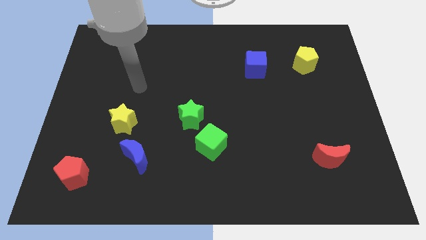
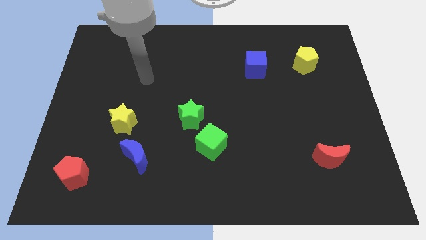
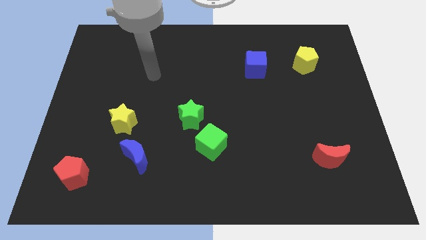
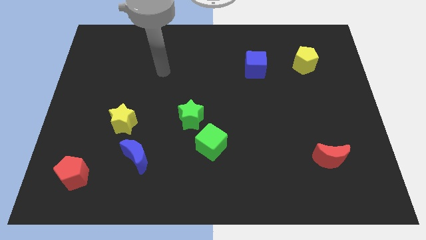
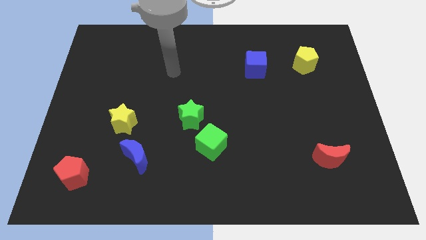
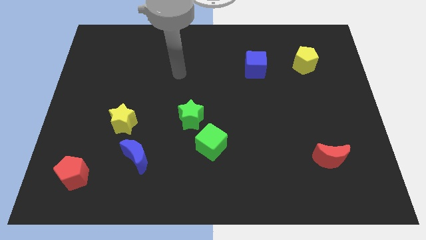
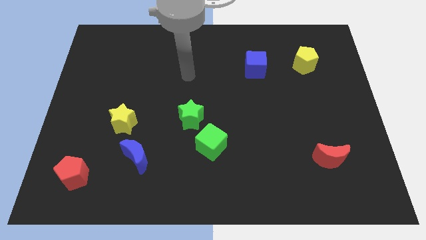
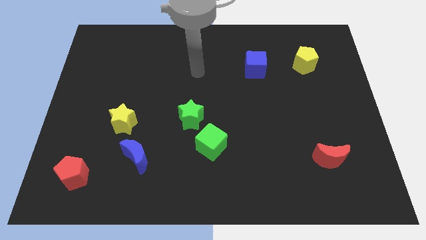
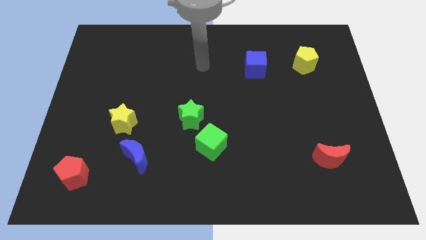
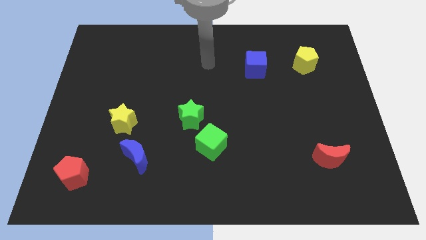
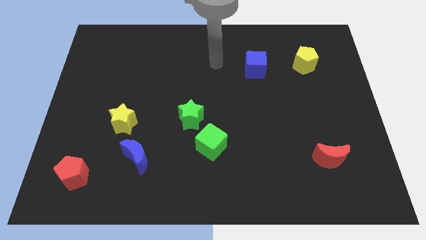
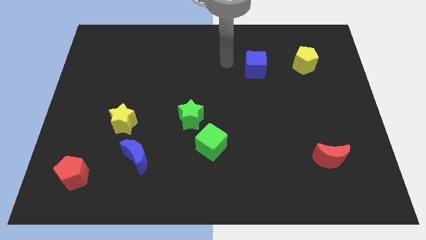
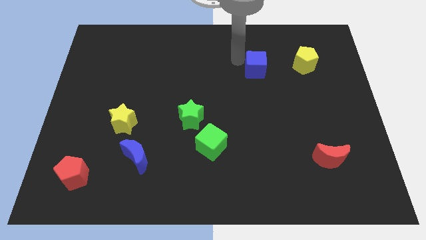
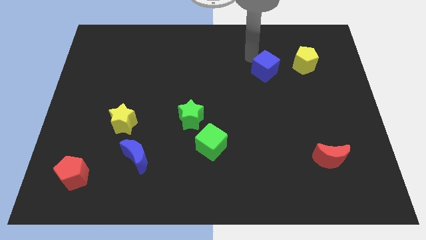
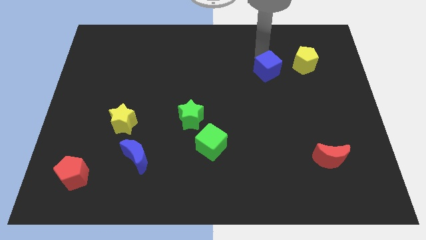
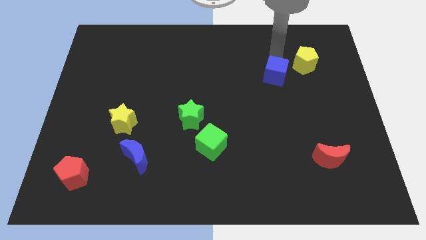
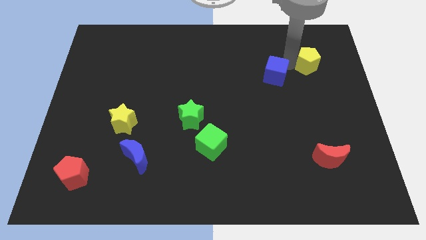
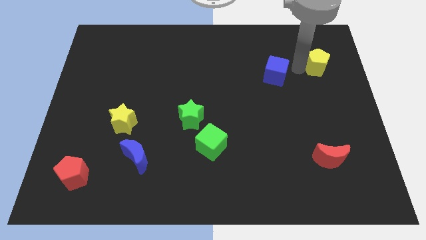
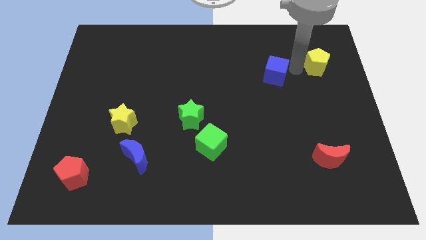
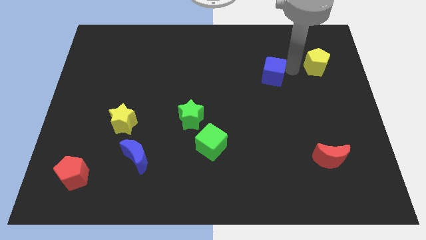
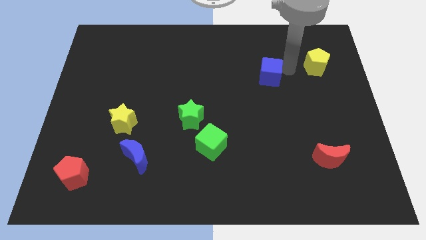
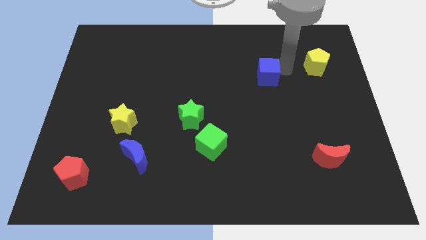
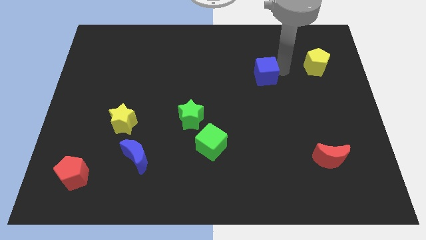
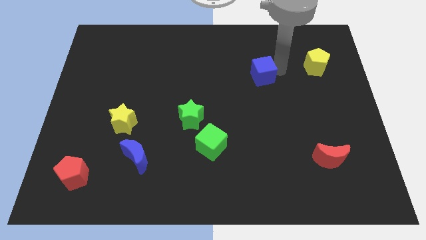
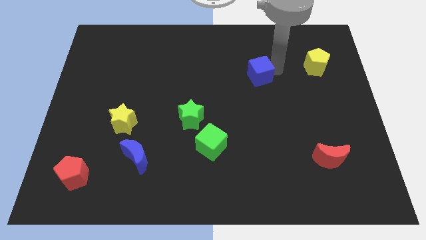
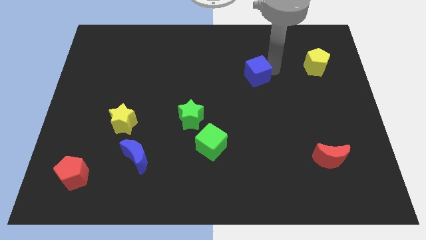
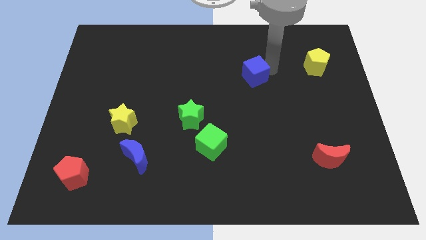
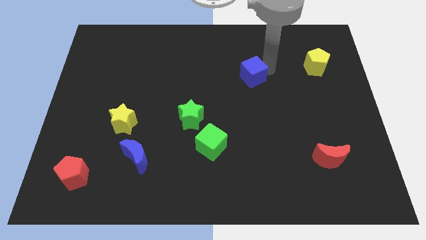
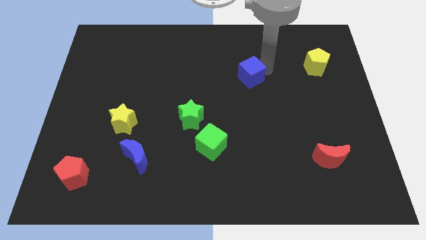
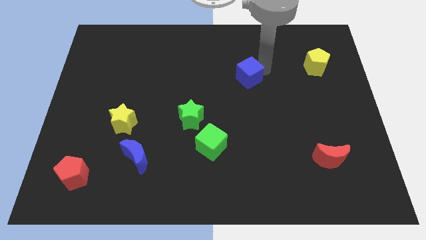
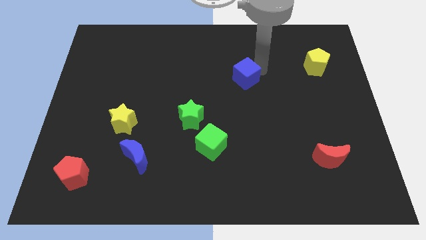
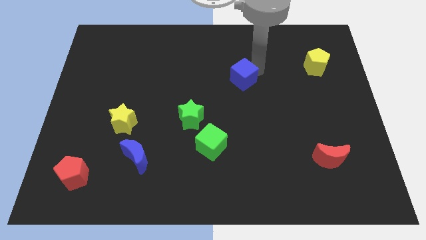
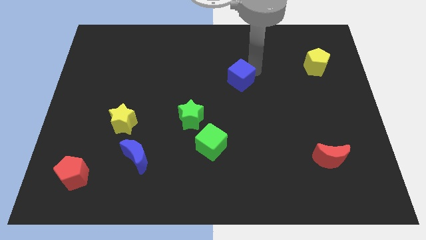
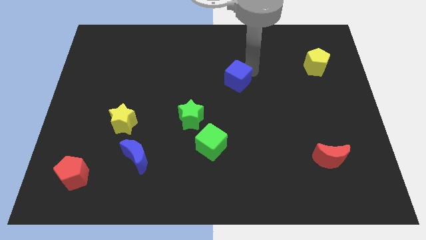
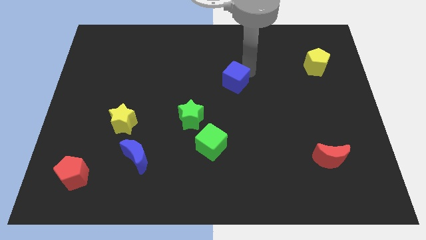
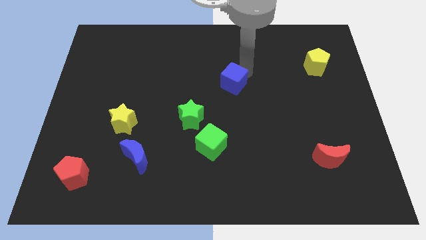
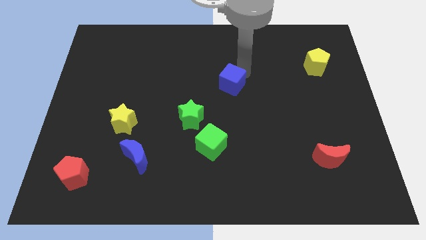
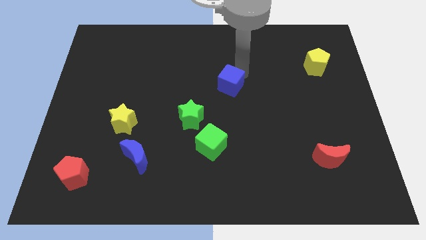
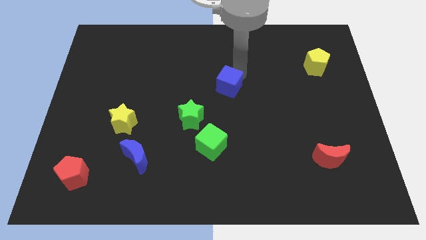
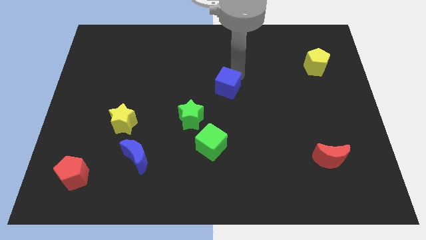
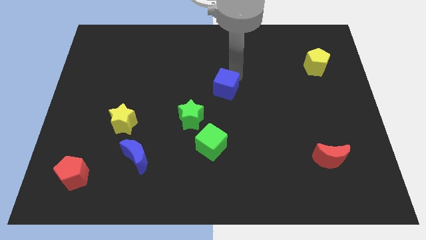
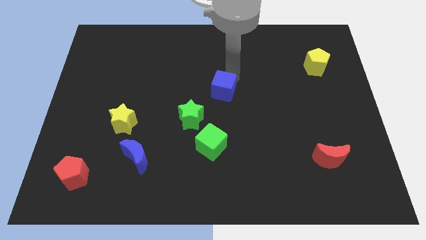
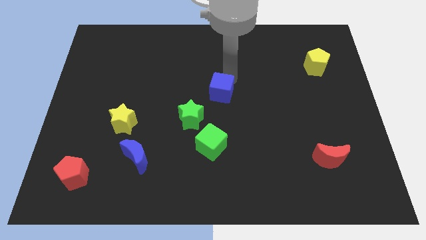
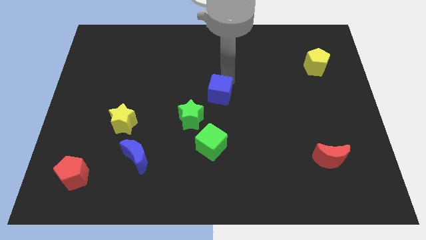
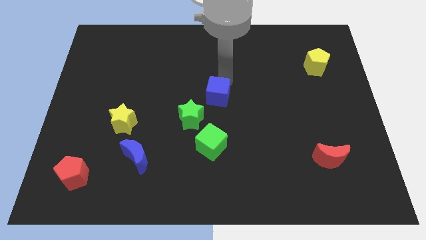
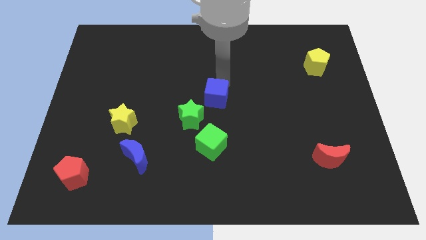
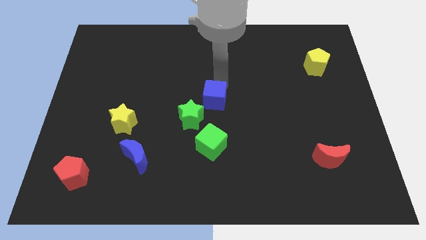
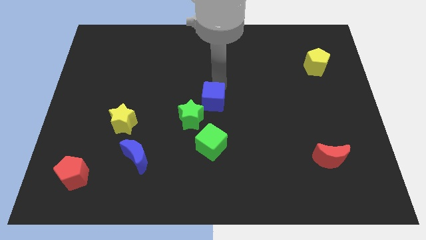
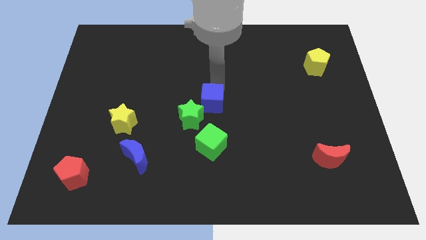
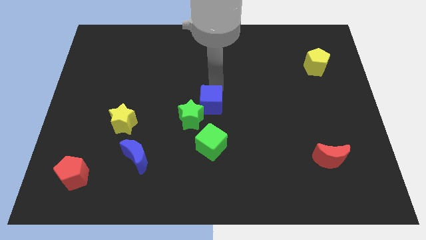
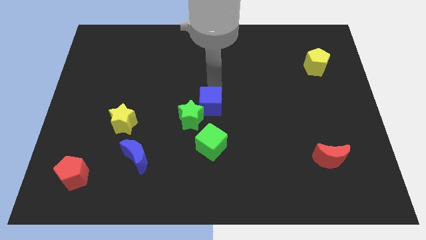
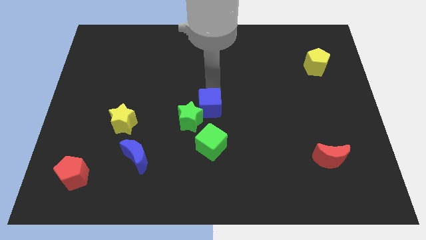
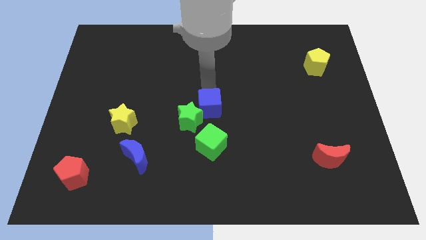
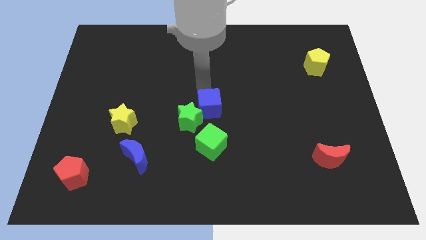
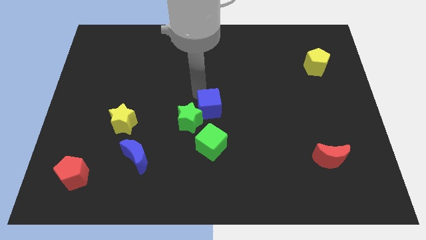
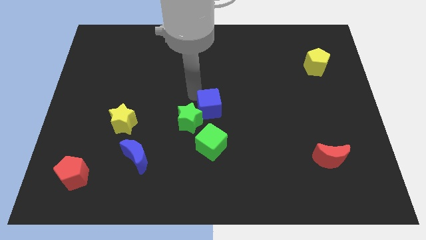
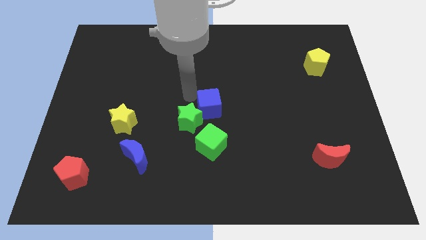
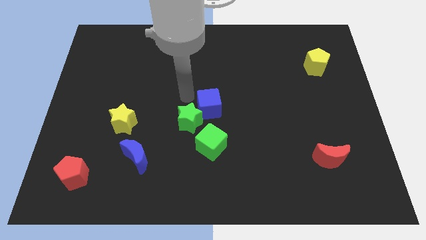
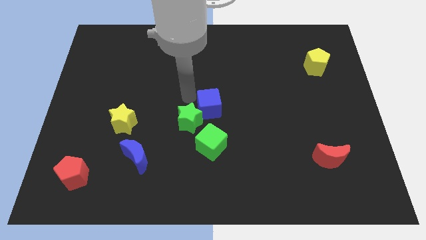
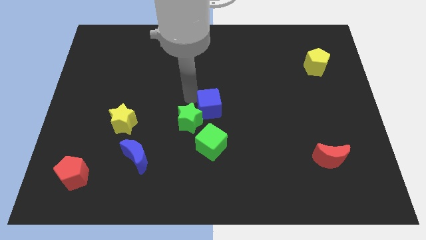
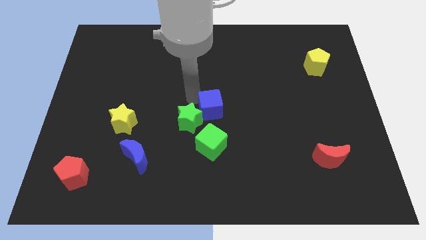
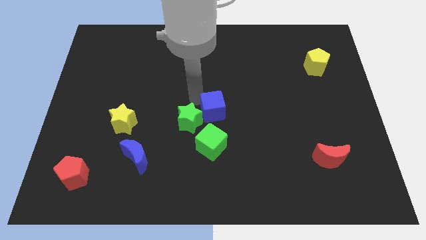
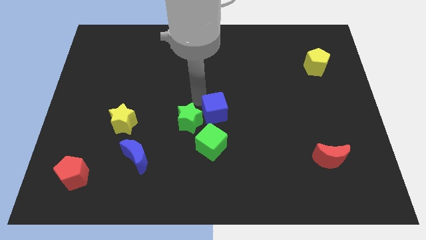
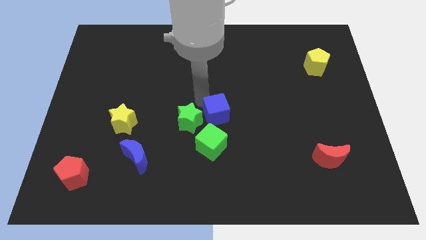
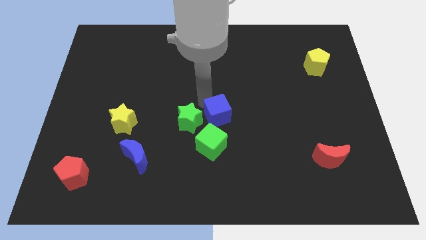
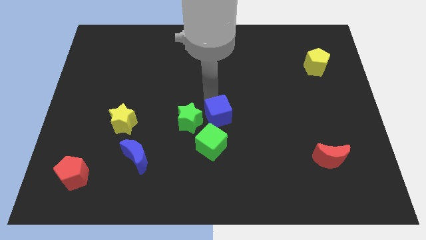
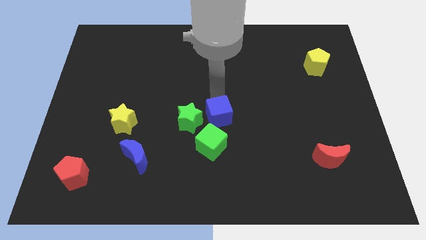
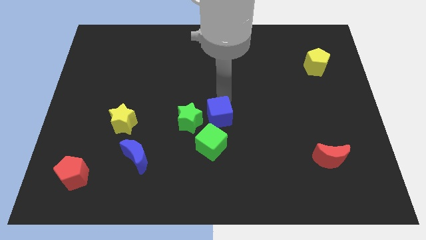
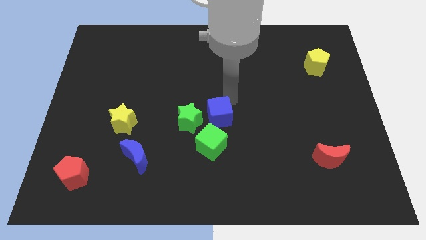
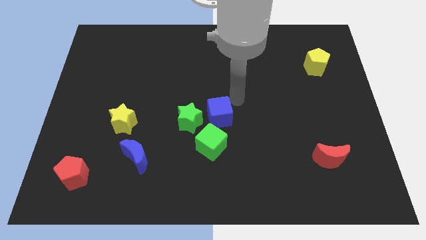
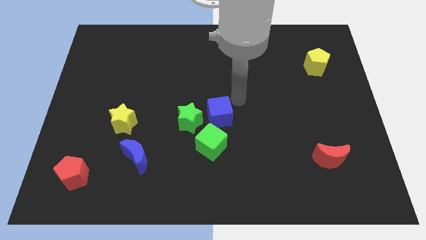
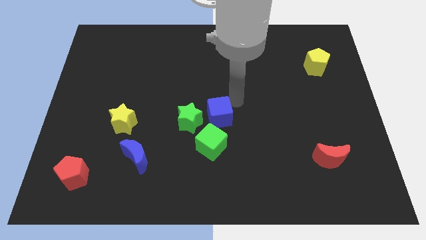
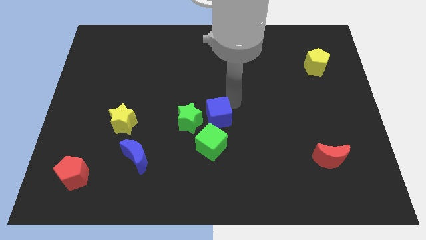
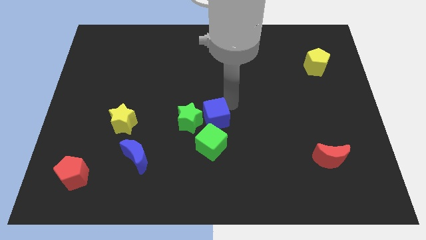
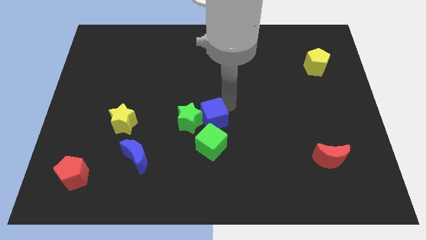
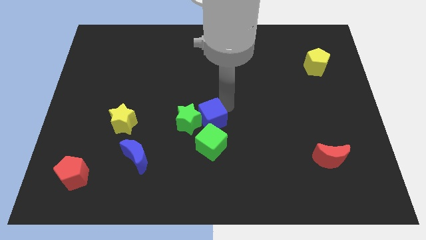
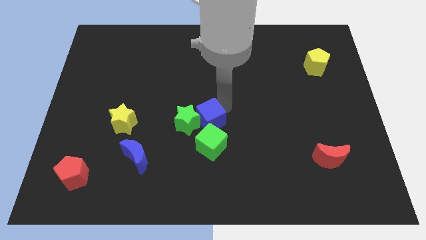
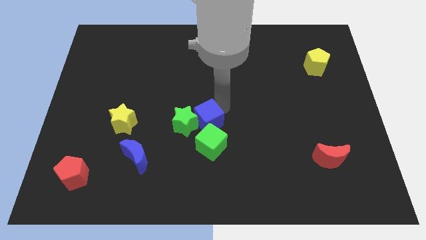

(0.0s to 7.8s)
slide the blue cube downwards and to the left
